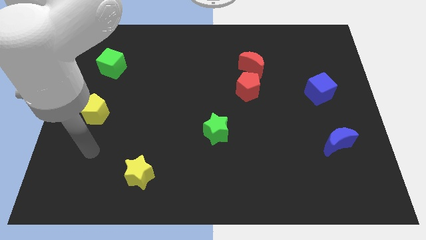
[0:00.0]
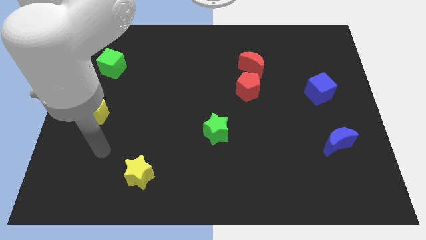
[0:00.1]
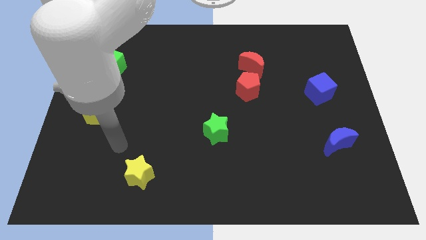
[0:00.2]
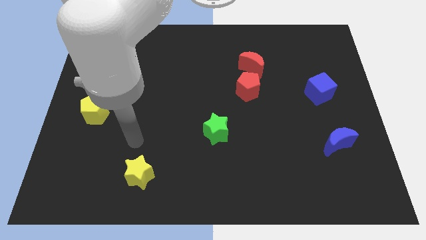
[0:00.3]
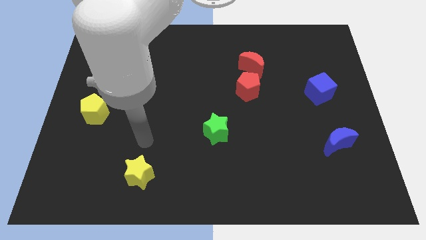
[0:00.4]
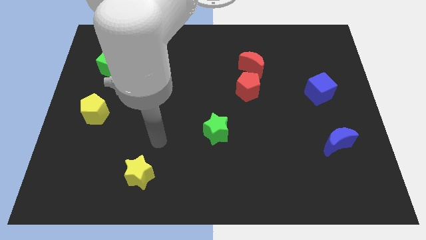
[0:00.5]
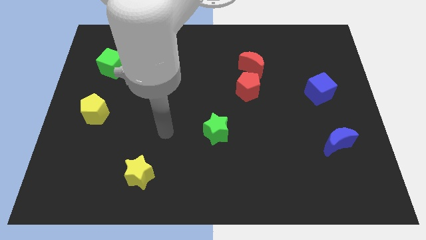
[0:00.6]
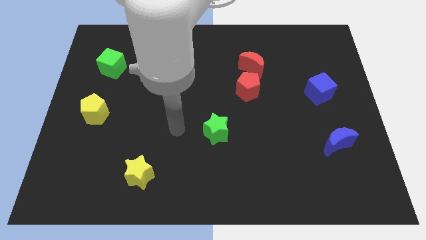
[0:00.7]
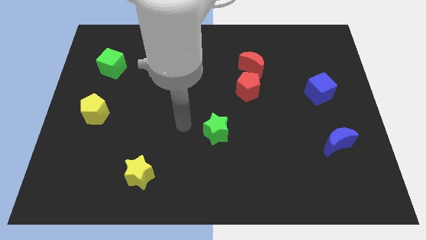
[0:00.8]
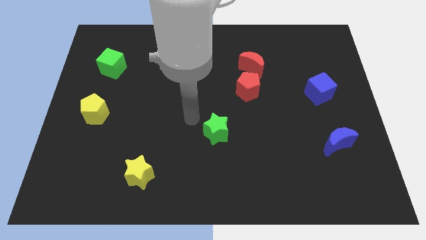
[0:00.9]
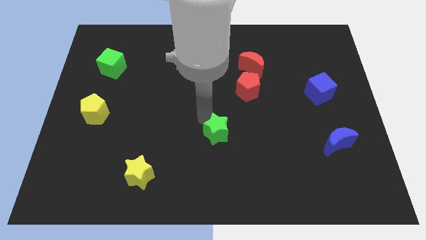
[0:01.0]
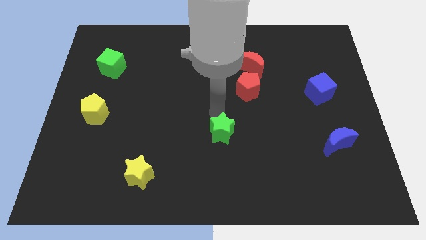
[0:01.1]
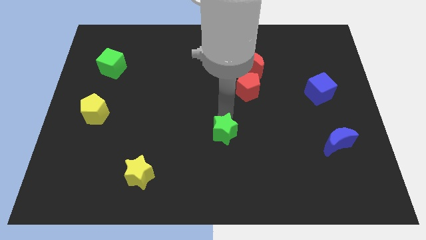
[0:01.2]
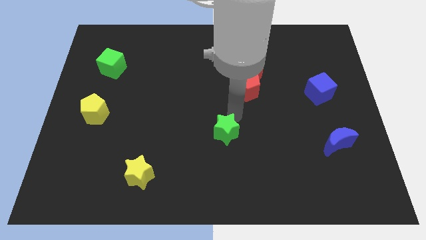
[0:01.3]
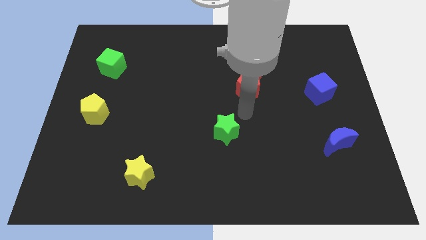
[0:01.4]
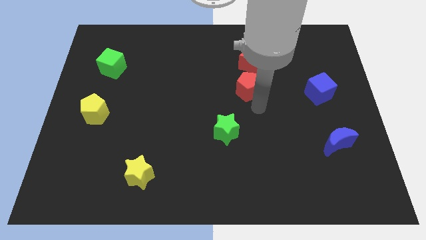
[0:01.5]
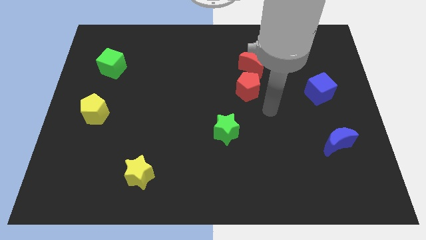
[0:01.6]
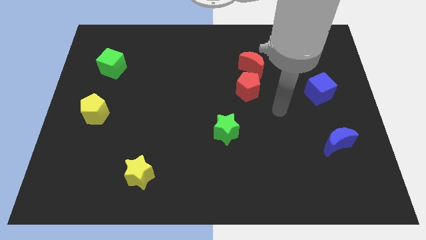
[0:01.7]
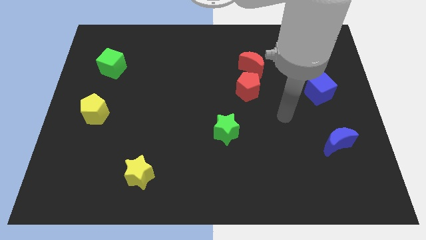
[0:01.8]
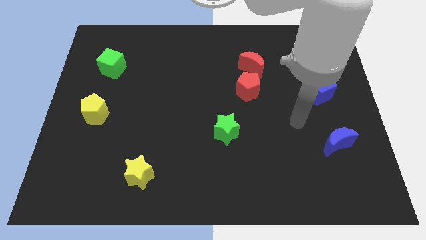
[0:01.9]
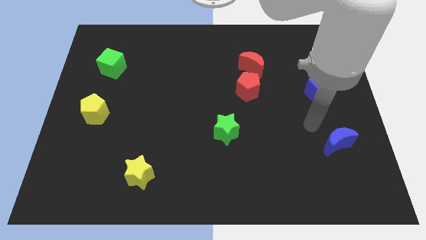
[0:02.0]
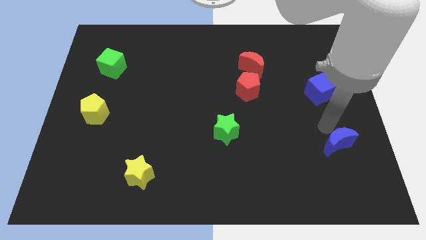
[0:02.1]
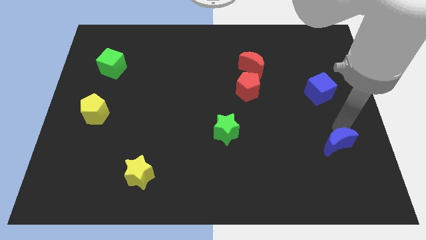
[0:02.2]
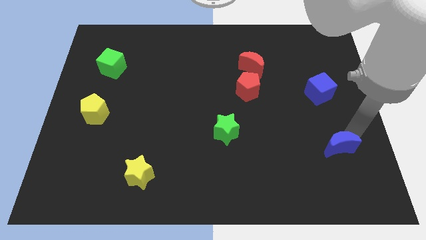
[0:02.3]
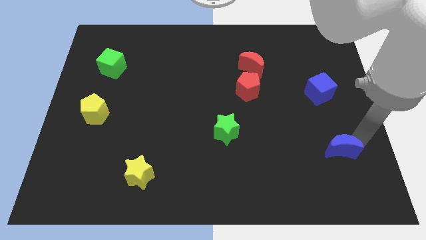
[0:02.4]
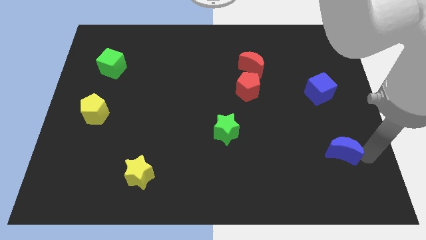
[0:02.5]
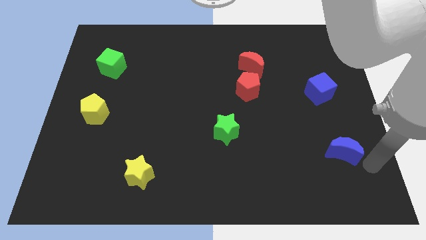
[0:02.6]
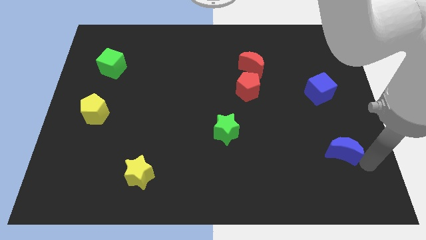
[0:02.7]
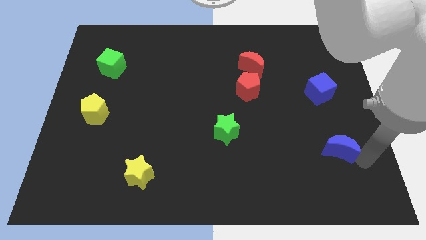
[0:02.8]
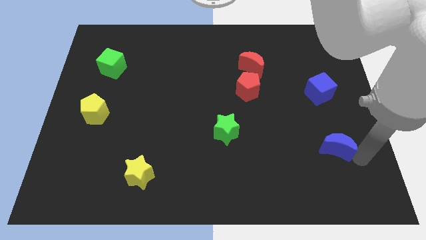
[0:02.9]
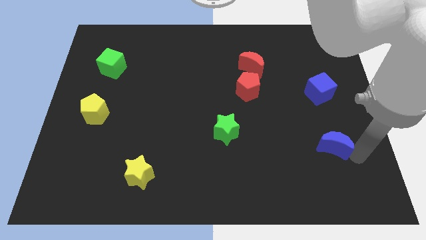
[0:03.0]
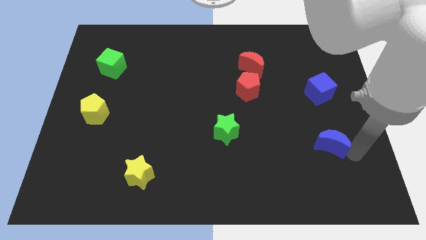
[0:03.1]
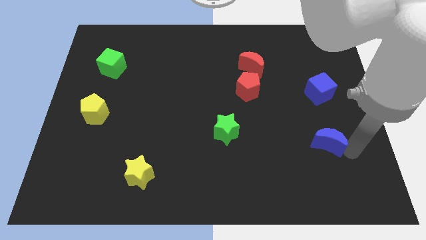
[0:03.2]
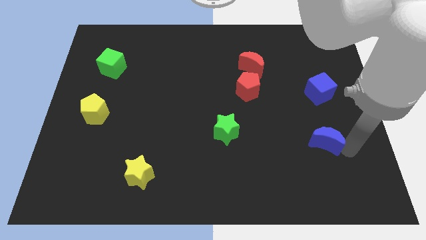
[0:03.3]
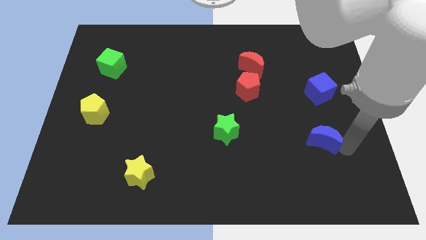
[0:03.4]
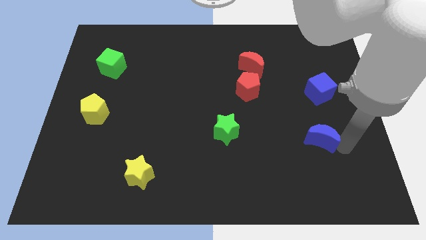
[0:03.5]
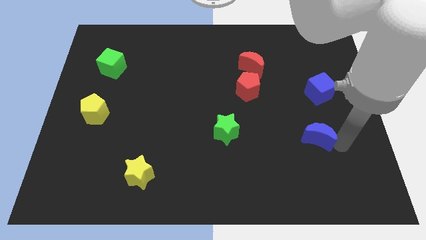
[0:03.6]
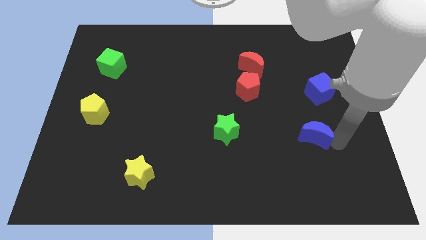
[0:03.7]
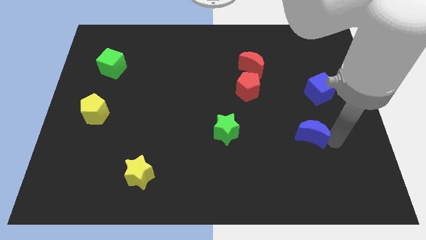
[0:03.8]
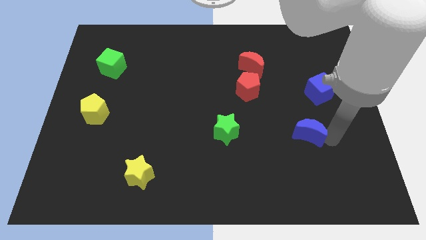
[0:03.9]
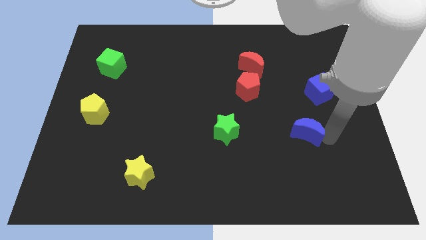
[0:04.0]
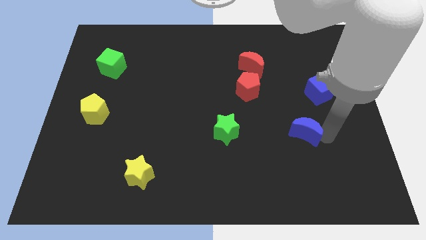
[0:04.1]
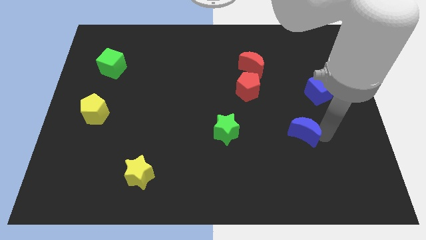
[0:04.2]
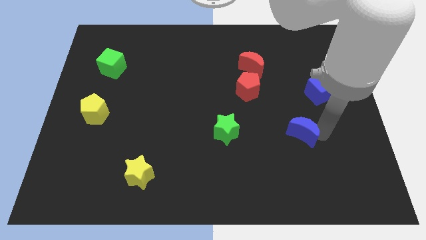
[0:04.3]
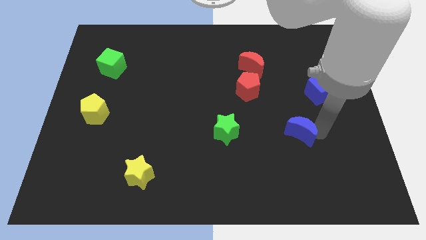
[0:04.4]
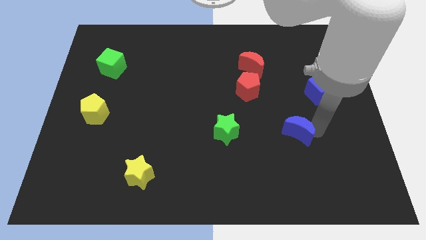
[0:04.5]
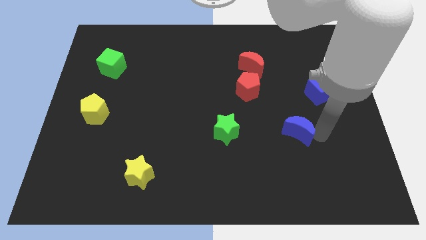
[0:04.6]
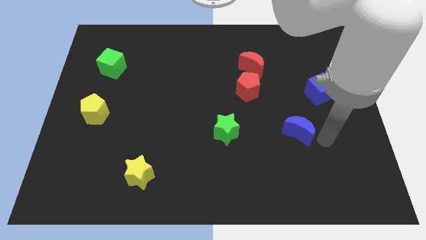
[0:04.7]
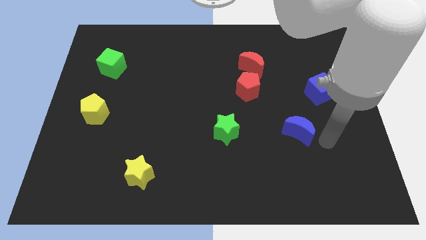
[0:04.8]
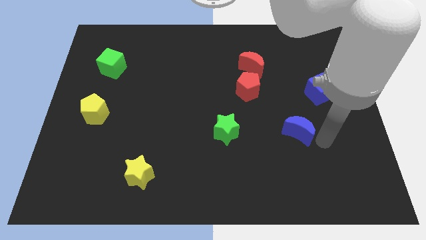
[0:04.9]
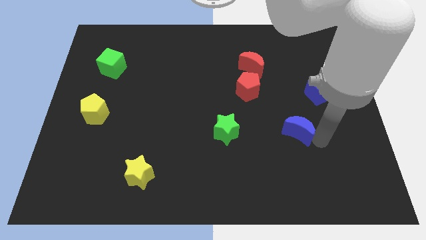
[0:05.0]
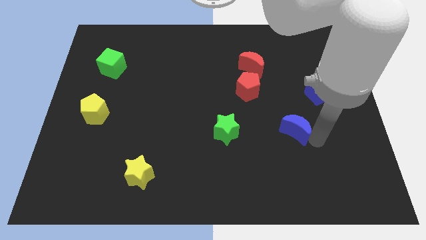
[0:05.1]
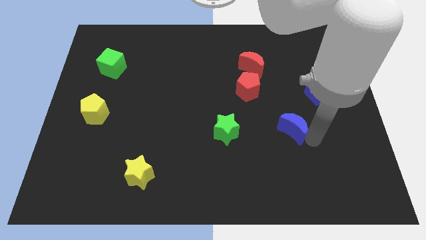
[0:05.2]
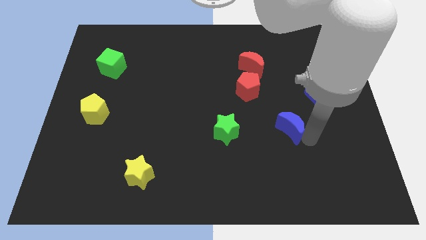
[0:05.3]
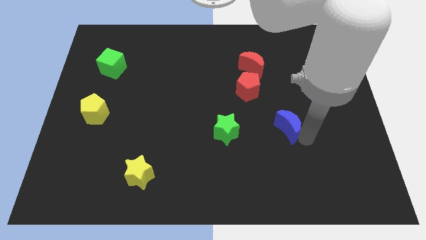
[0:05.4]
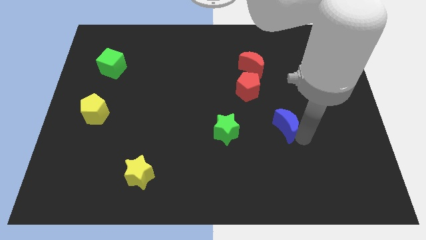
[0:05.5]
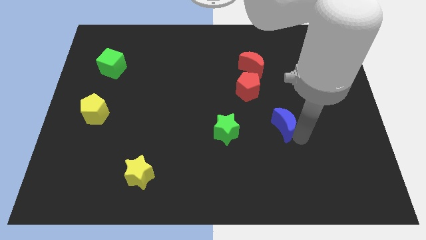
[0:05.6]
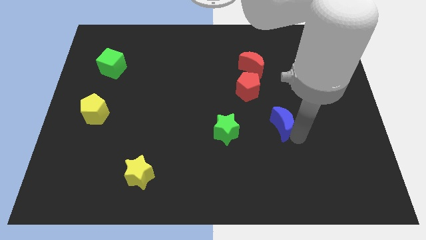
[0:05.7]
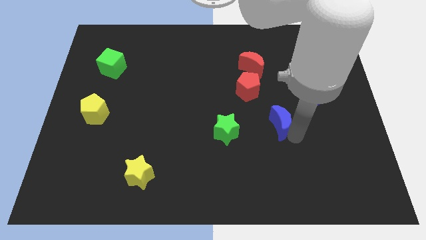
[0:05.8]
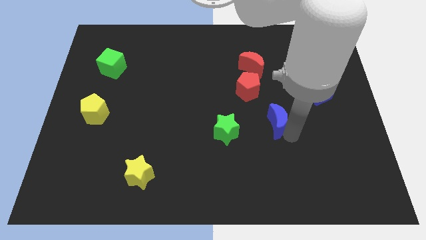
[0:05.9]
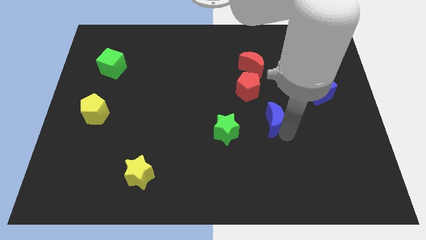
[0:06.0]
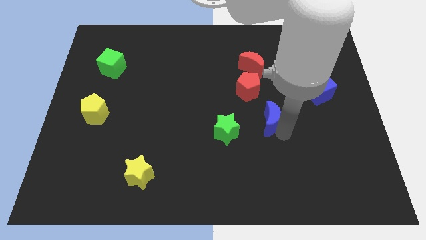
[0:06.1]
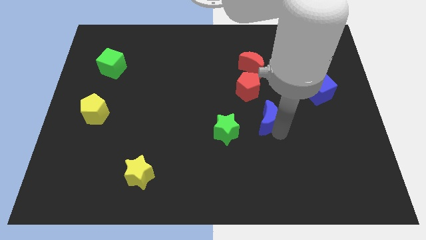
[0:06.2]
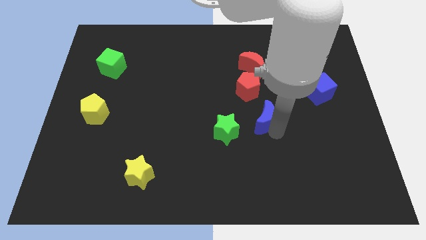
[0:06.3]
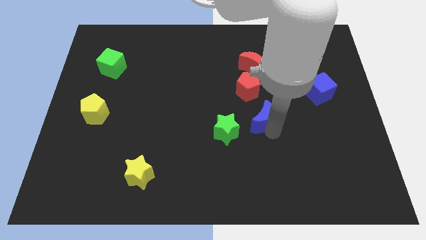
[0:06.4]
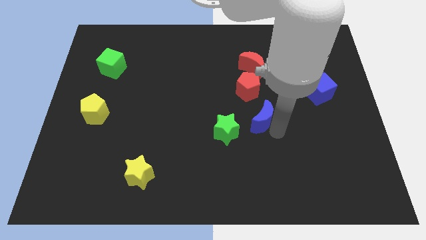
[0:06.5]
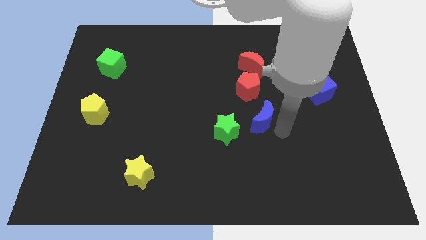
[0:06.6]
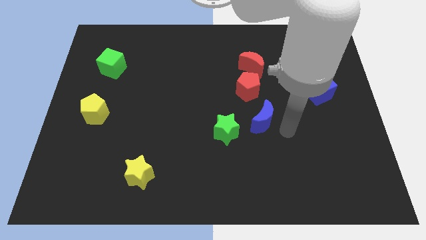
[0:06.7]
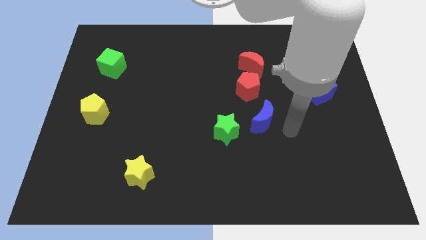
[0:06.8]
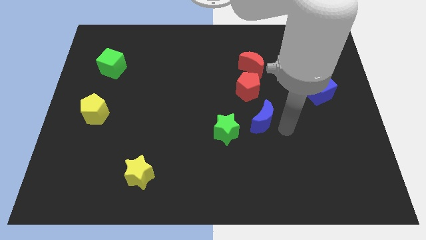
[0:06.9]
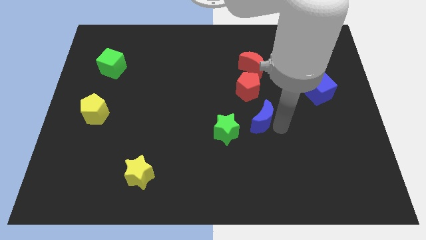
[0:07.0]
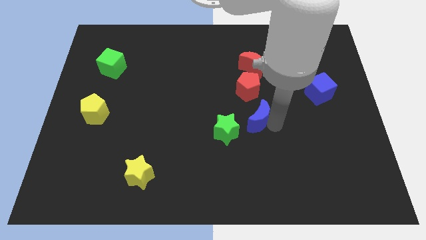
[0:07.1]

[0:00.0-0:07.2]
push the blue moon to the center of the board
